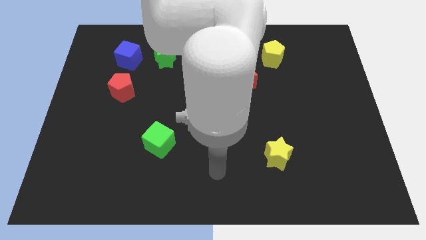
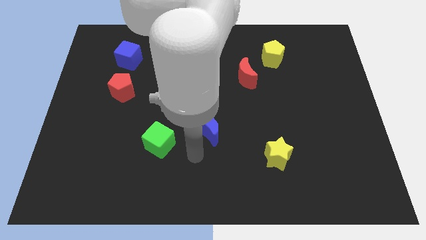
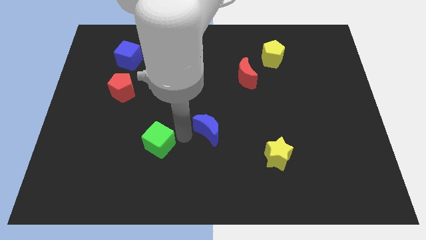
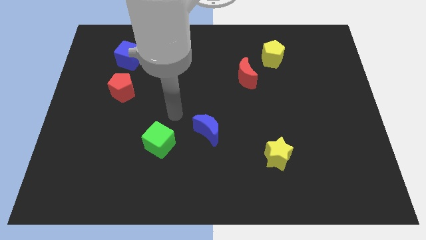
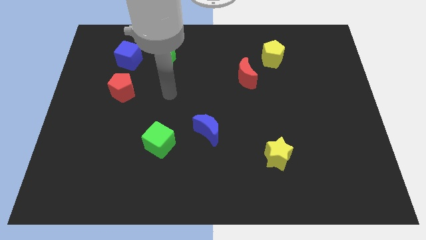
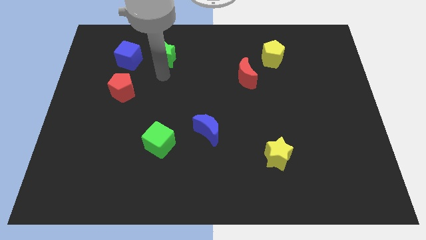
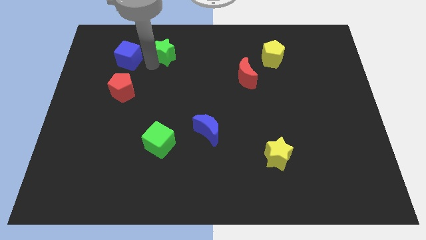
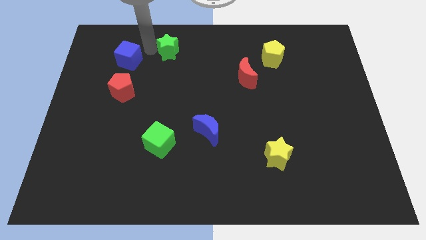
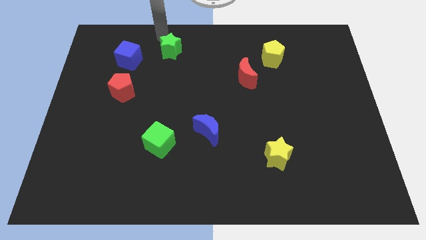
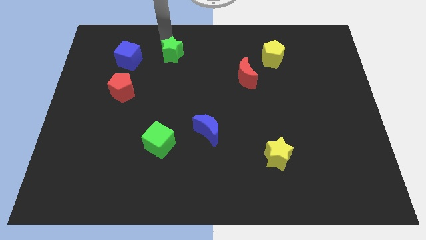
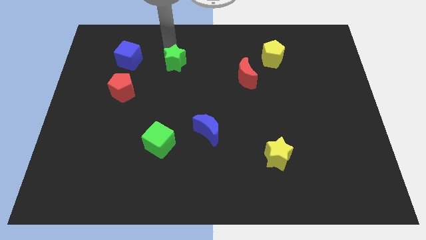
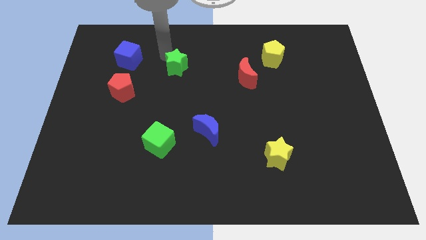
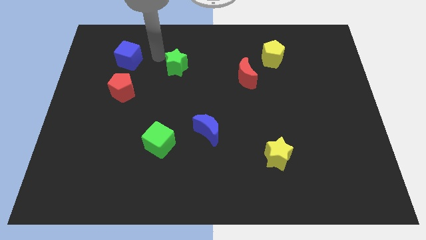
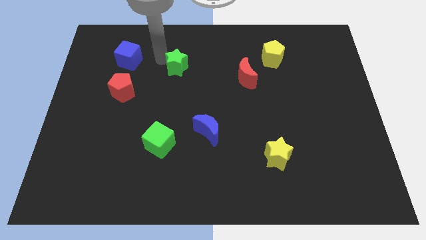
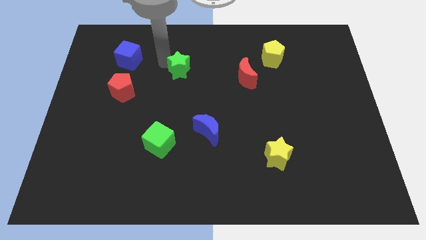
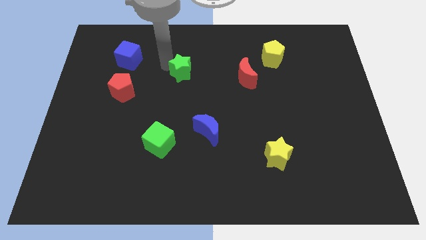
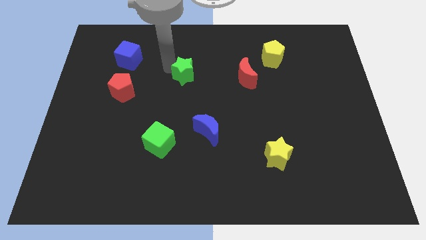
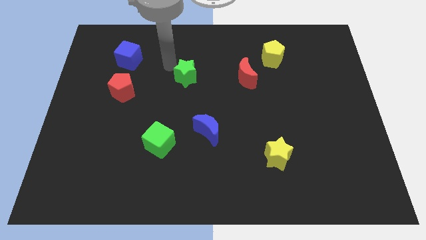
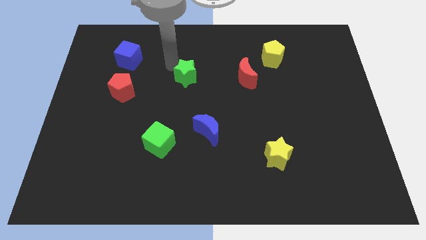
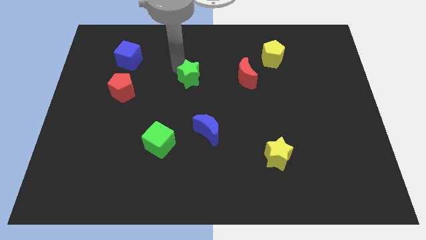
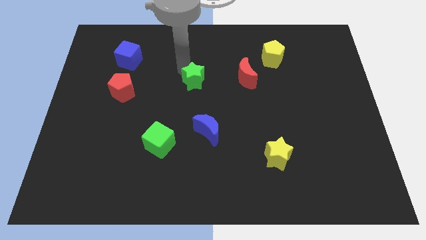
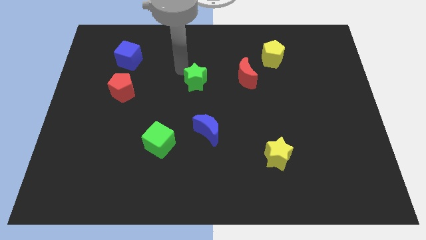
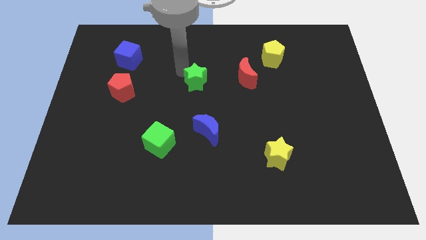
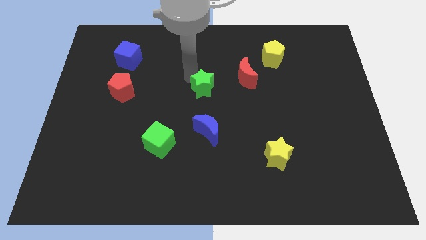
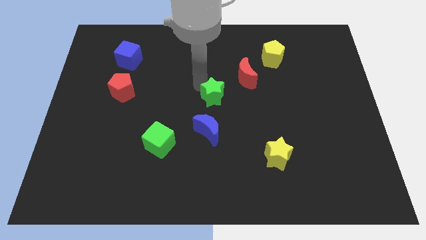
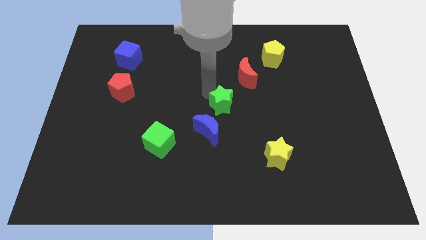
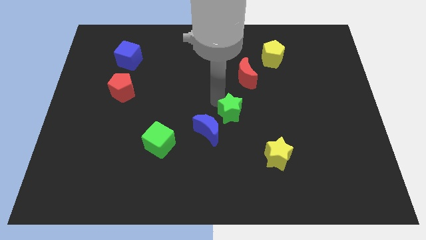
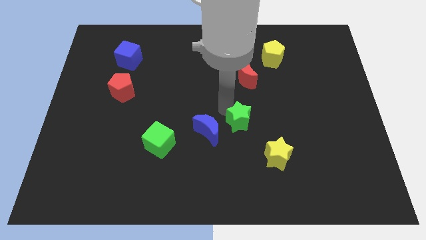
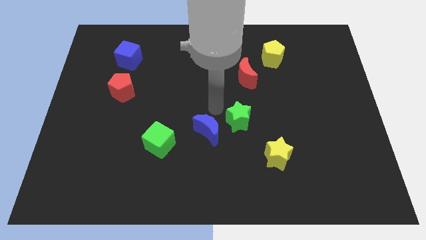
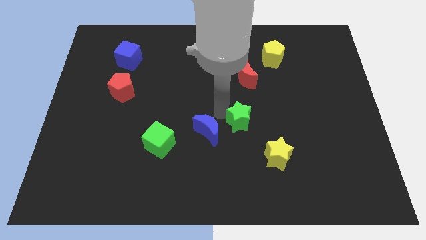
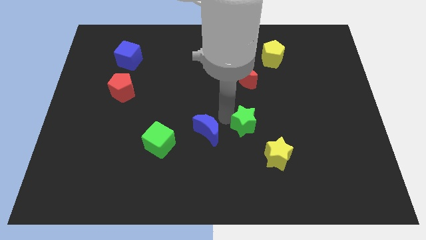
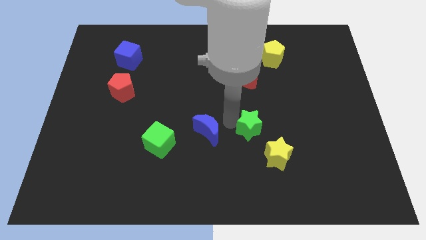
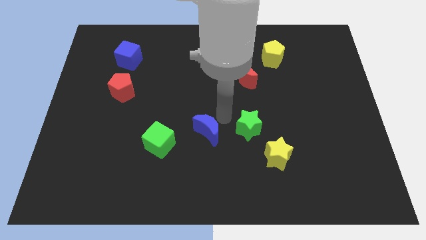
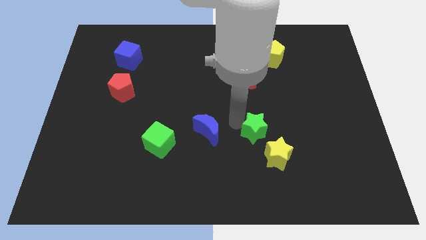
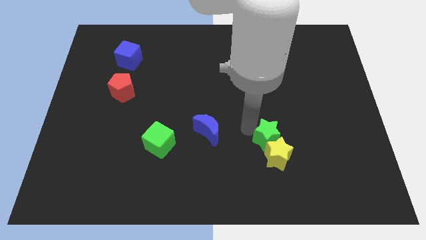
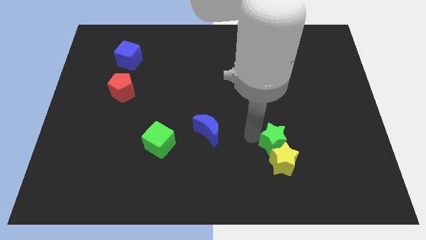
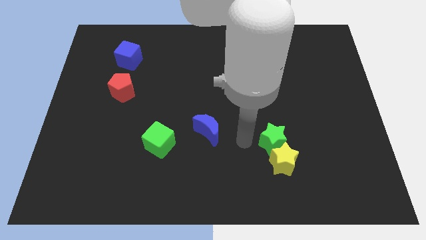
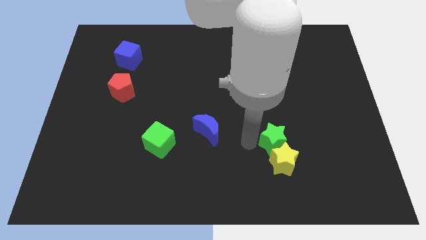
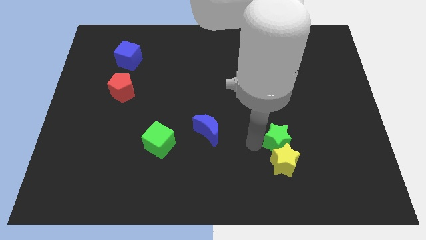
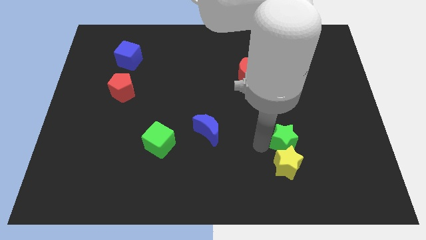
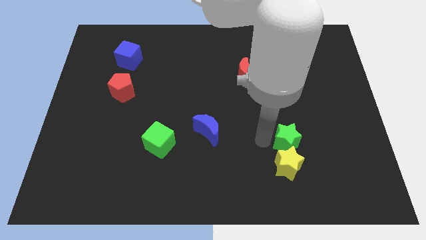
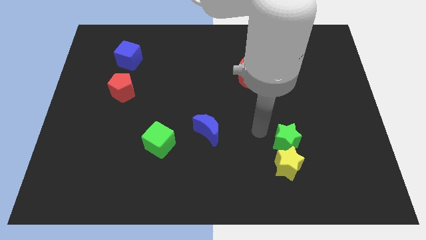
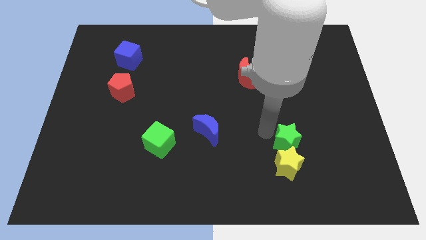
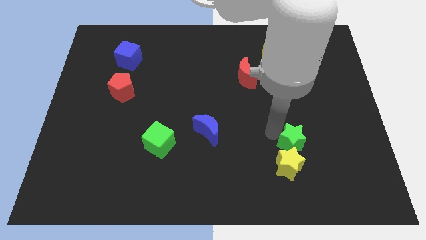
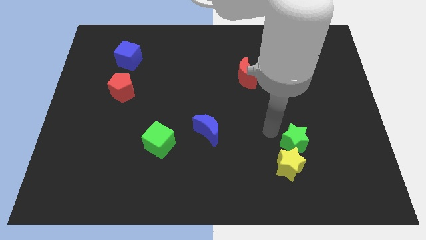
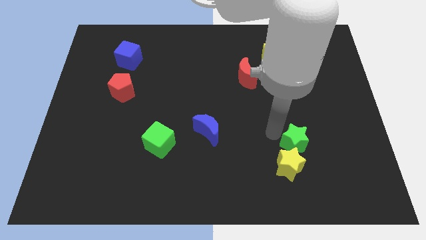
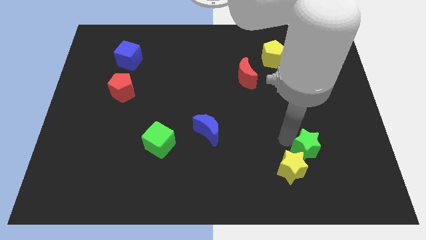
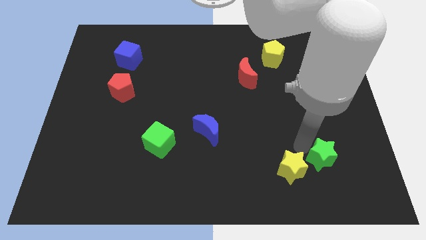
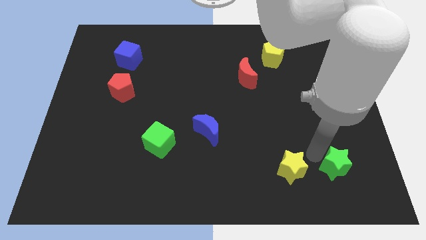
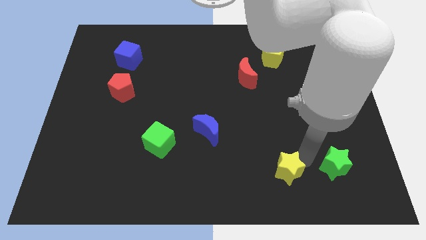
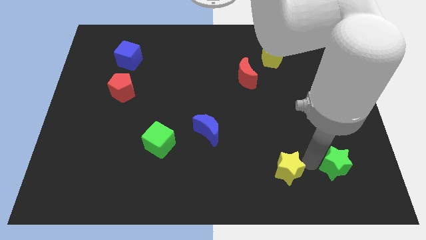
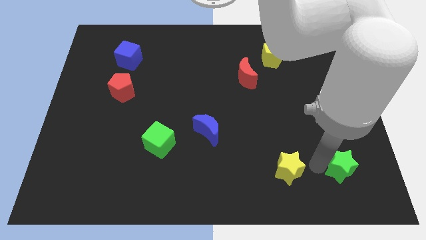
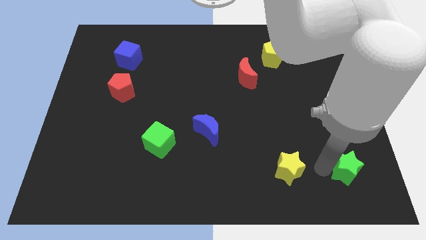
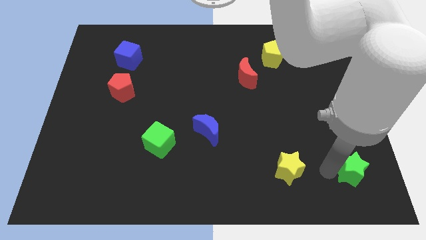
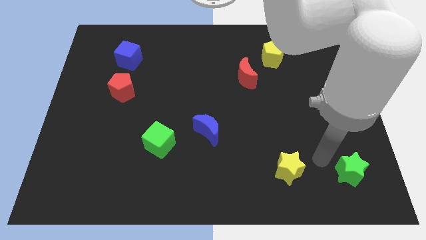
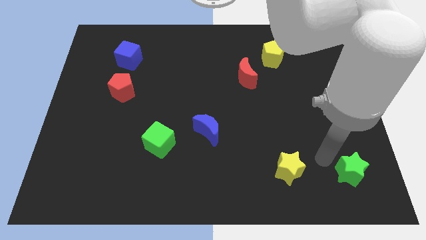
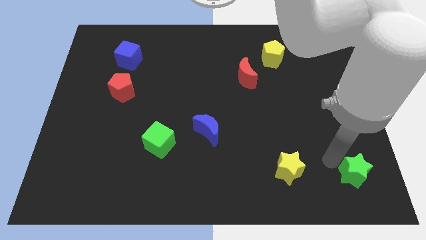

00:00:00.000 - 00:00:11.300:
move the green star to the lower right corner

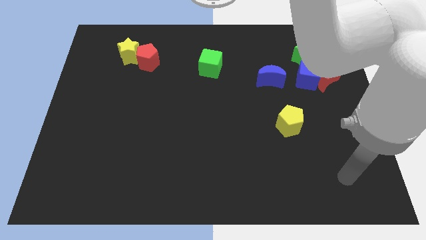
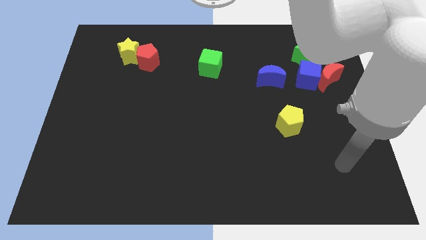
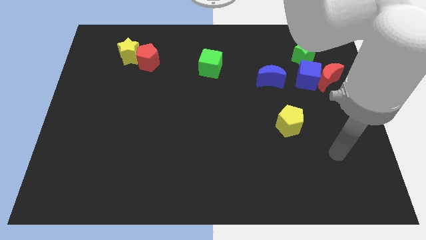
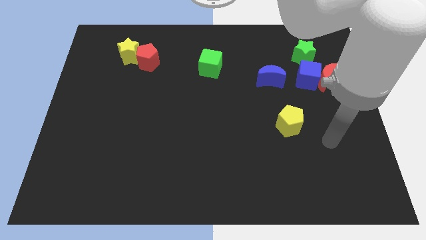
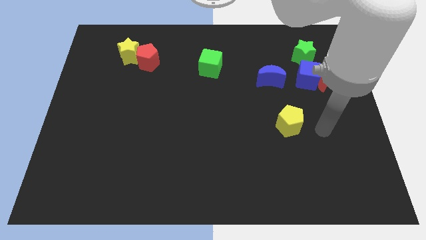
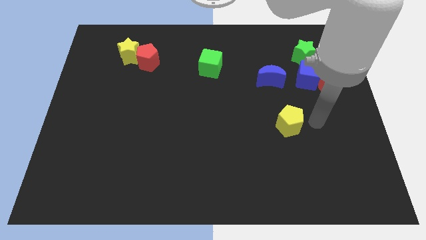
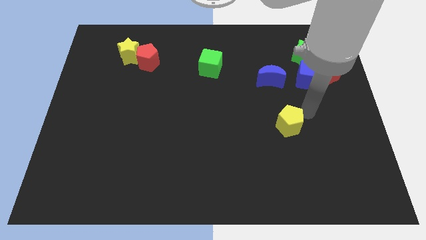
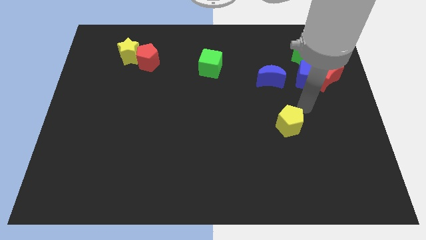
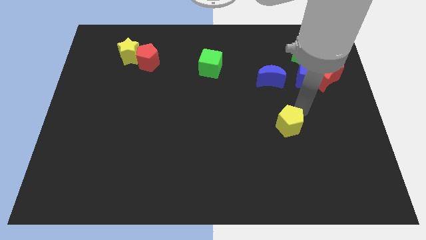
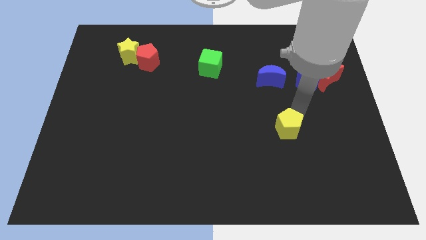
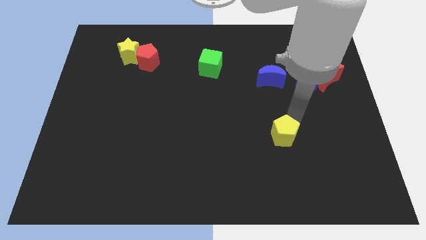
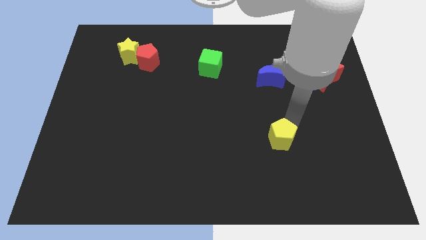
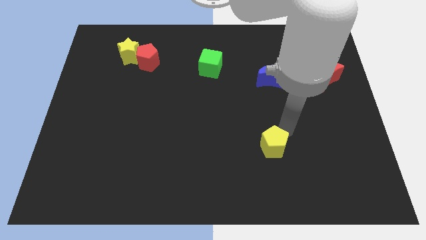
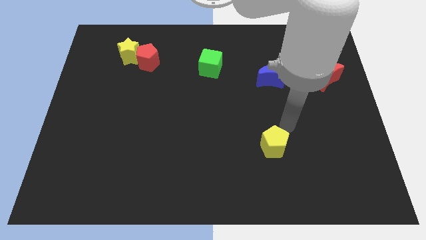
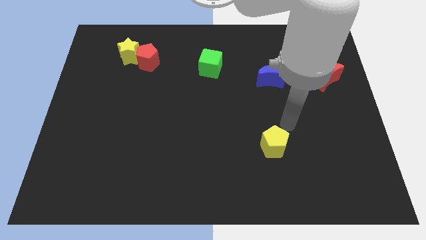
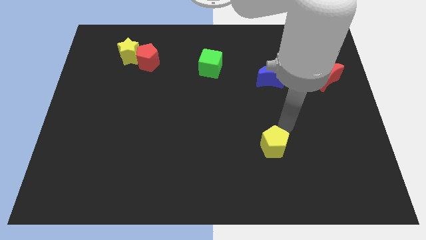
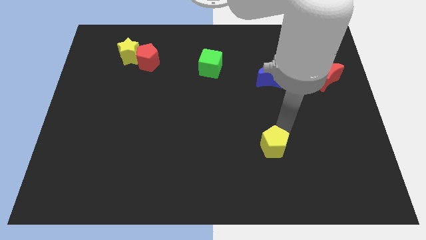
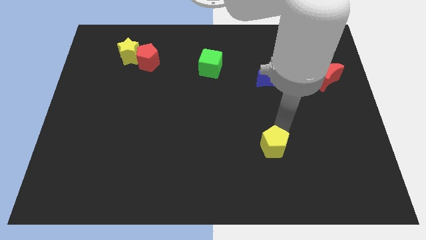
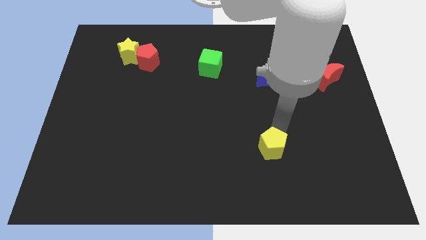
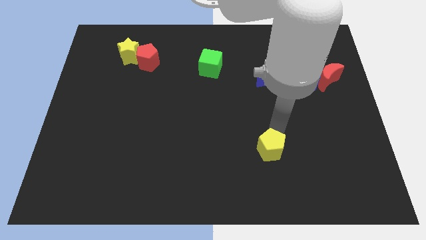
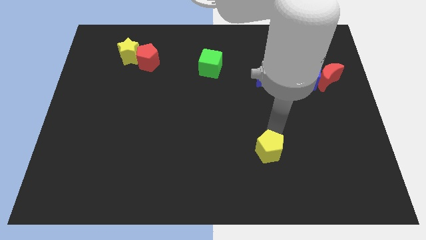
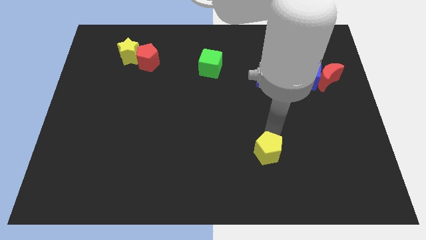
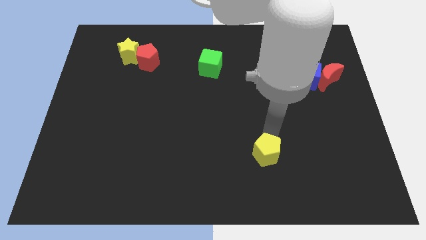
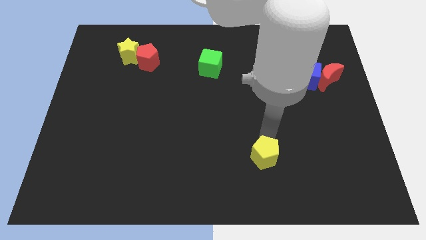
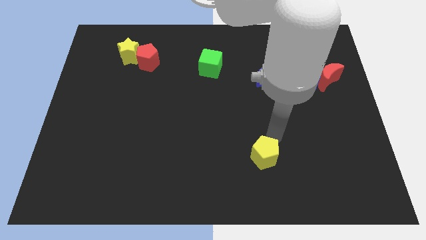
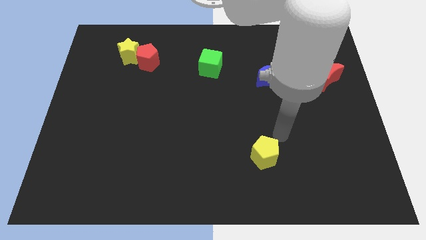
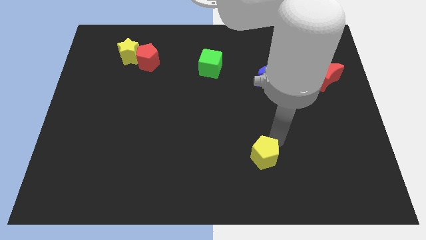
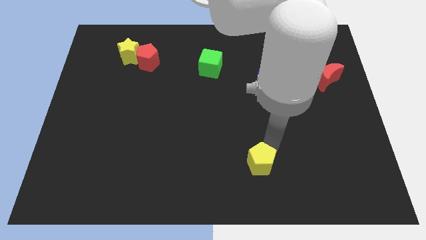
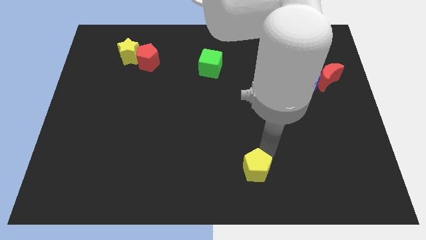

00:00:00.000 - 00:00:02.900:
push the yellow pentagon to the bottom side
